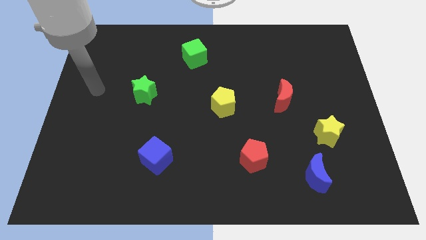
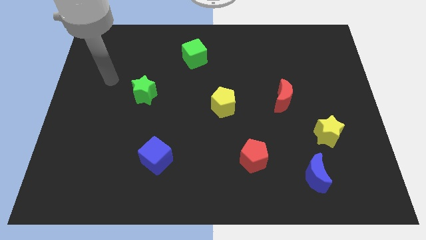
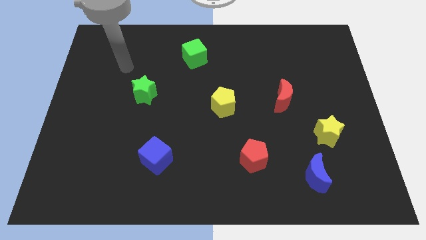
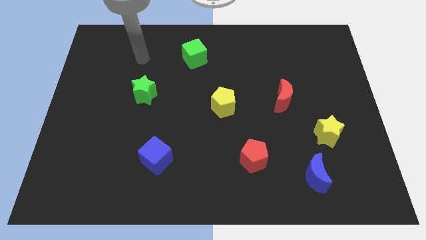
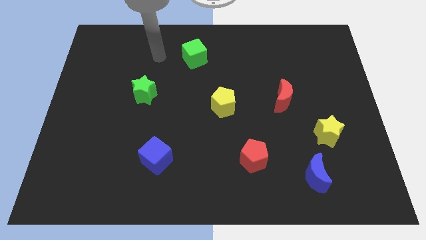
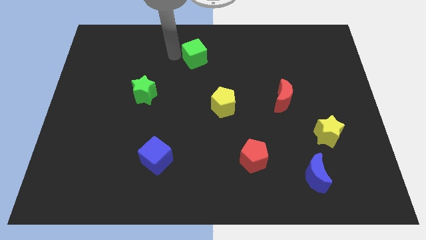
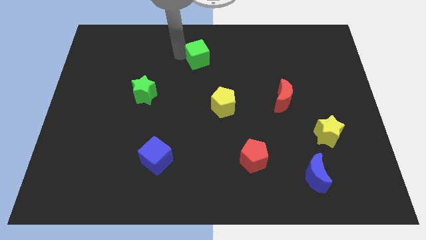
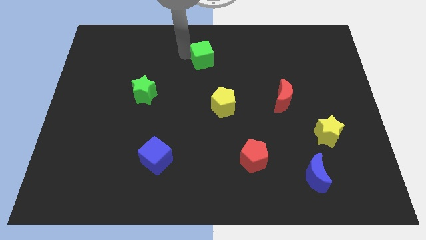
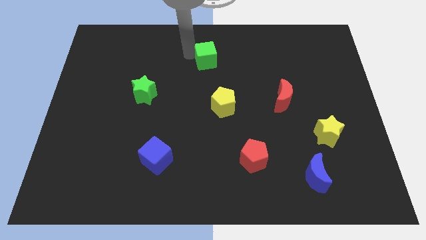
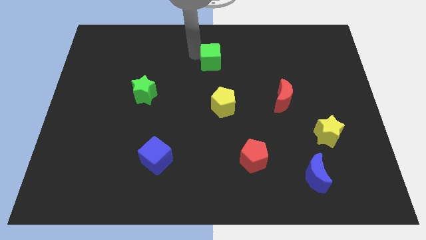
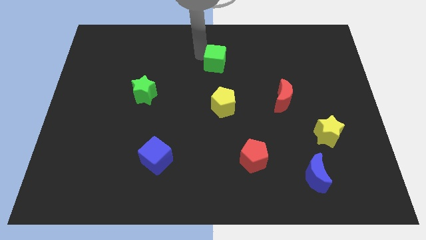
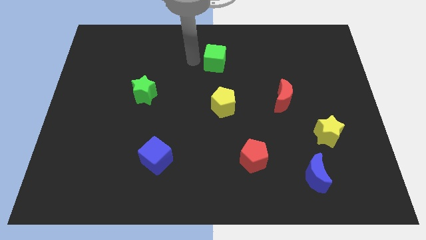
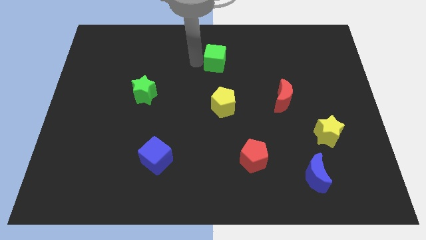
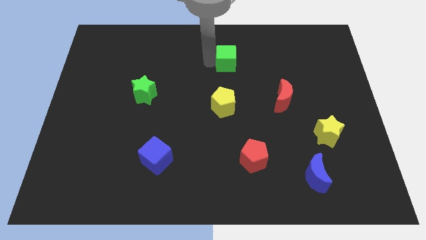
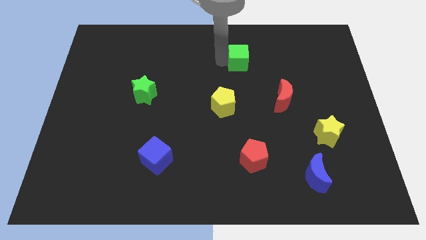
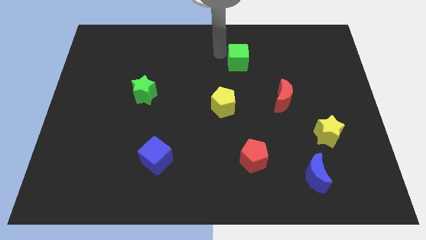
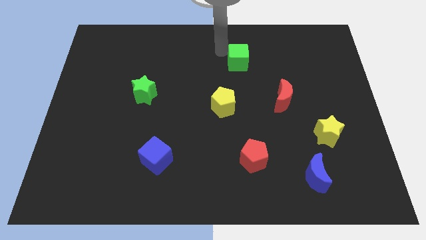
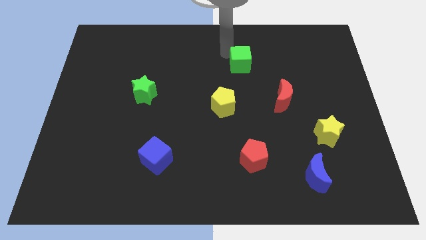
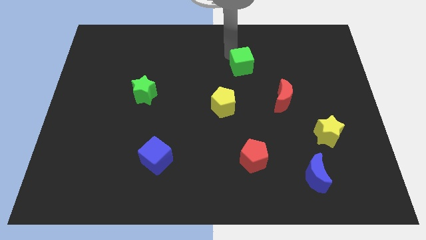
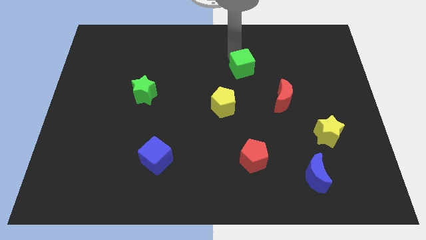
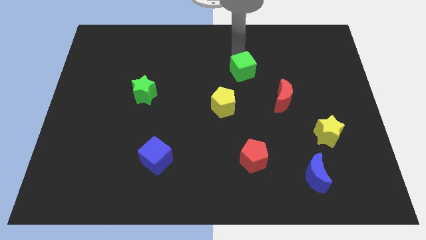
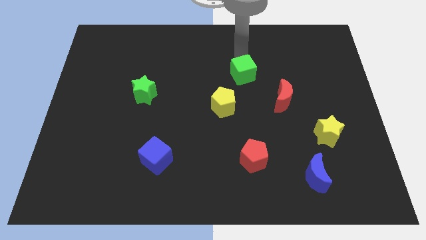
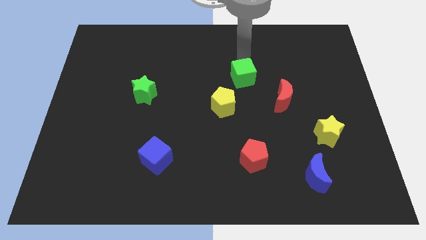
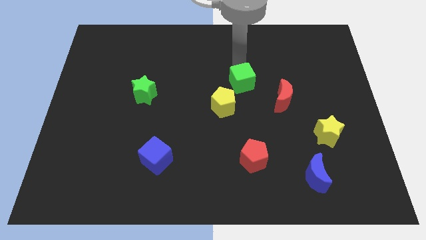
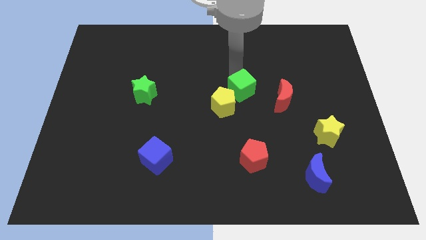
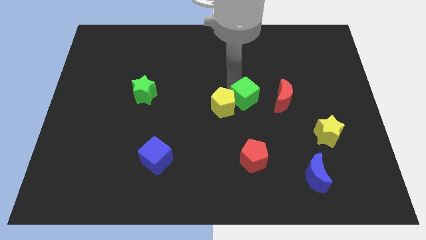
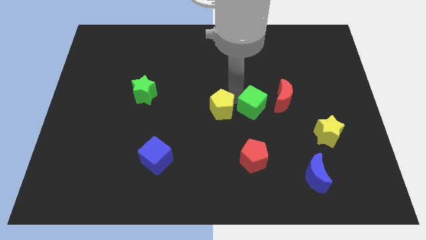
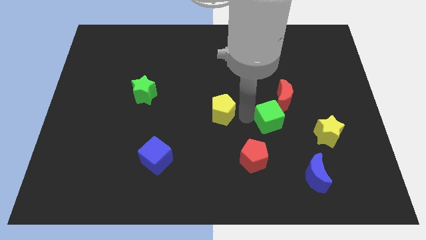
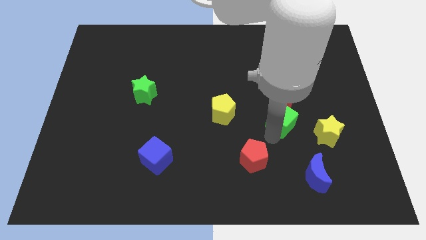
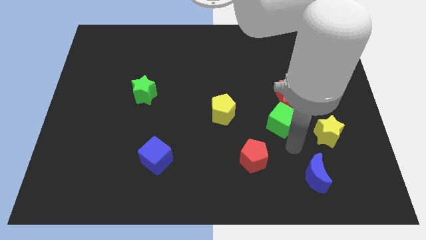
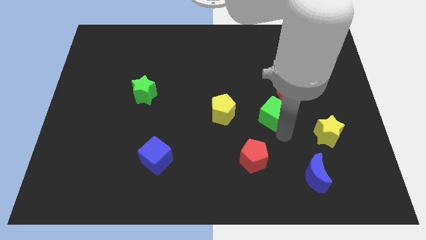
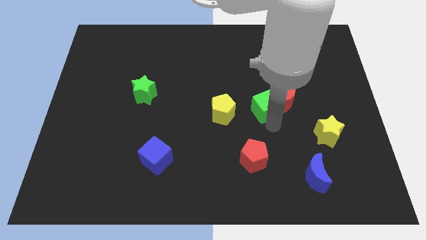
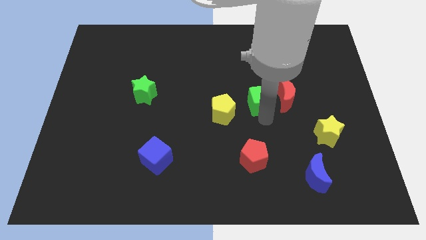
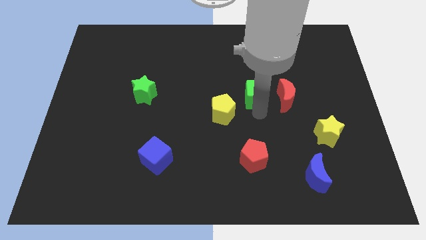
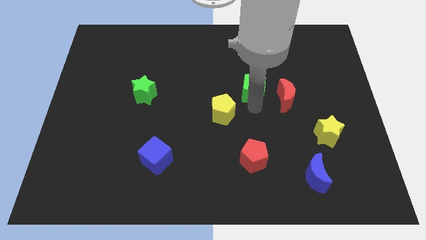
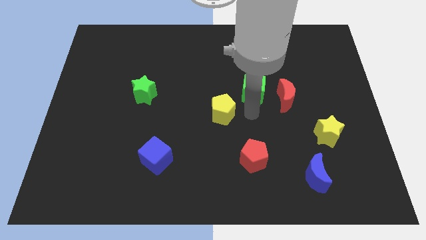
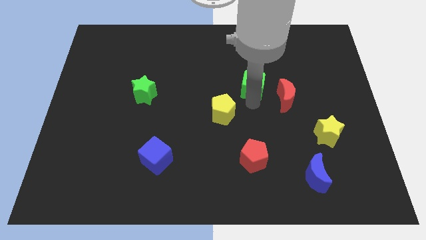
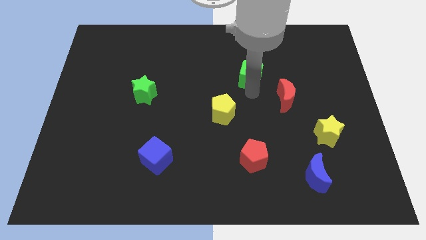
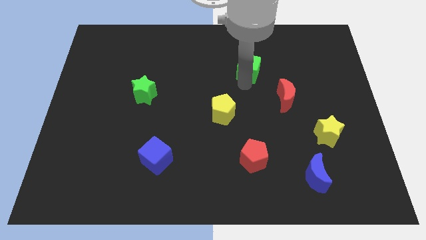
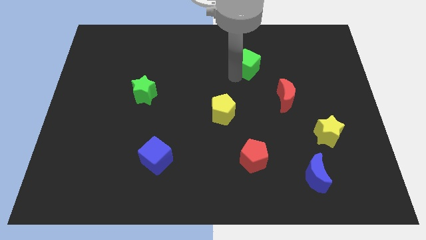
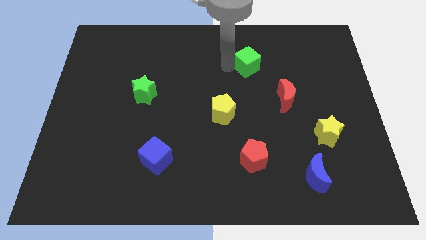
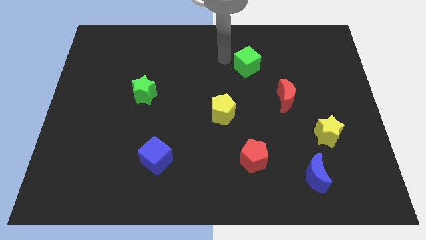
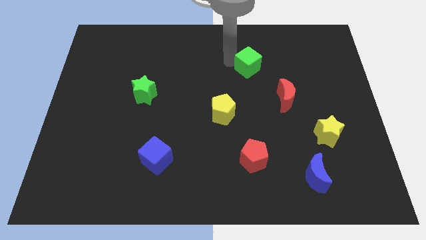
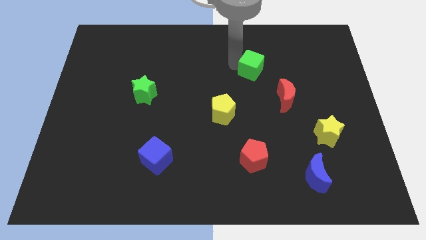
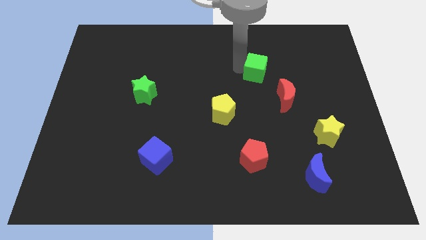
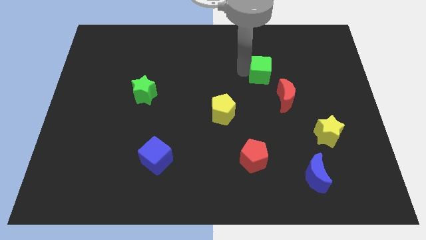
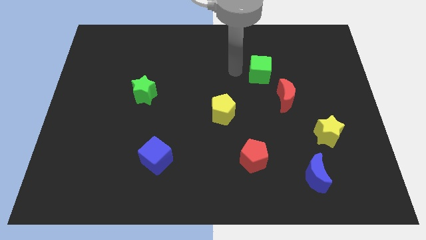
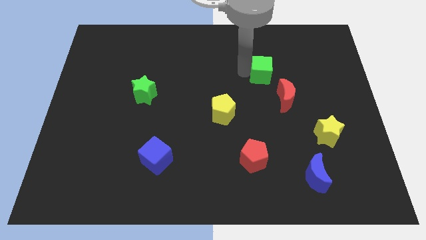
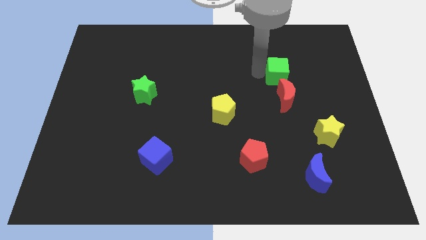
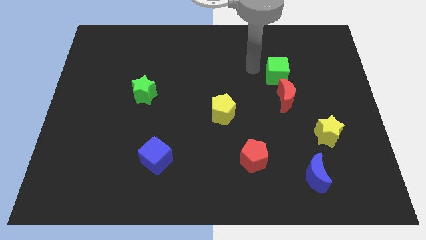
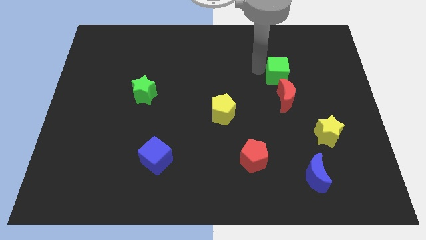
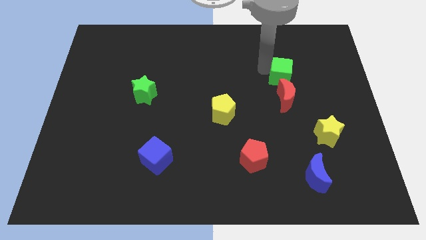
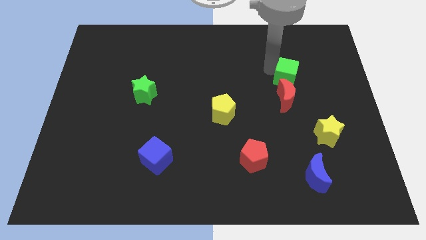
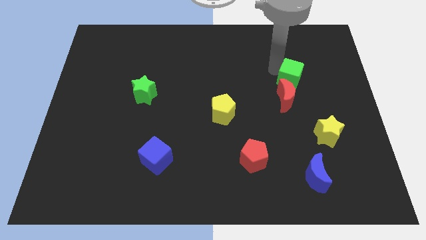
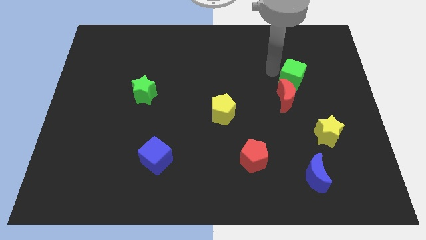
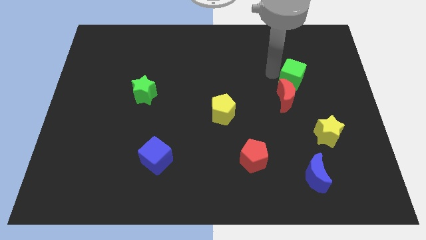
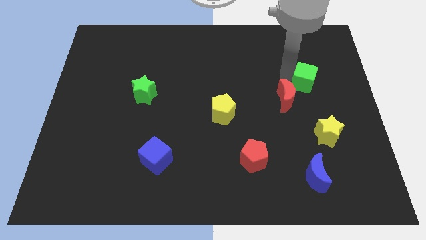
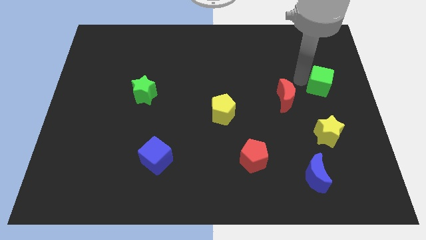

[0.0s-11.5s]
move the green cube to the right side of the board

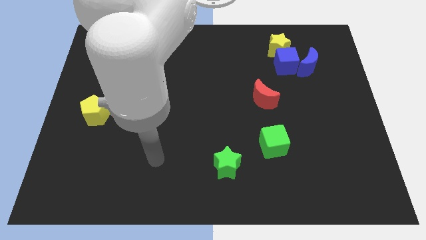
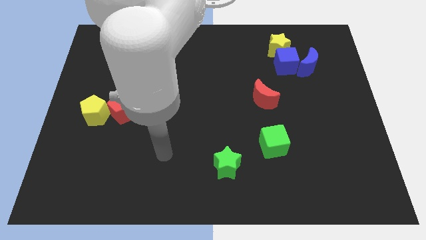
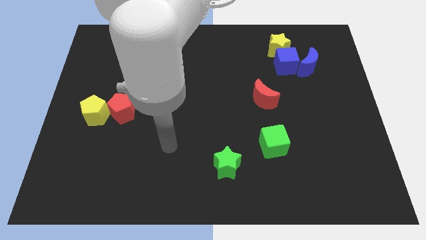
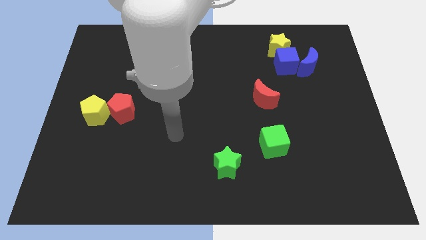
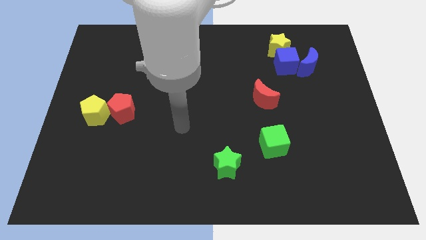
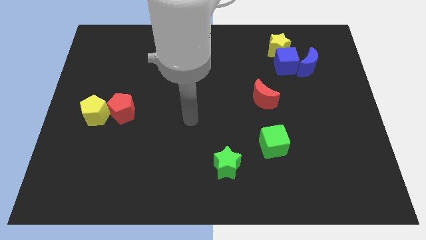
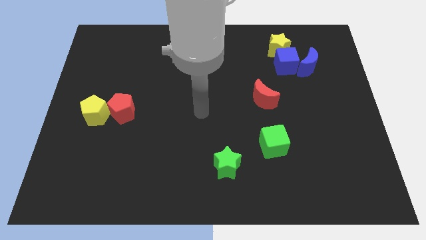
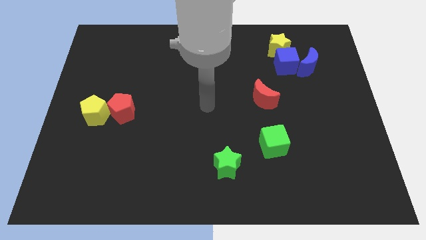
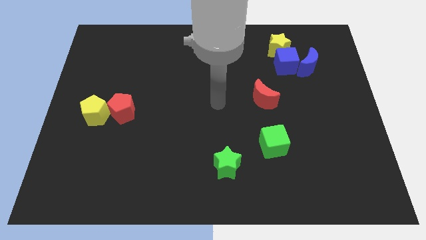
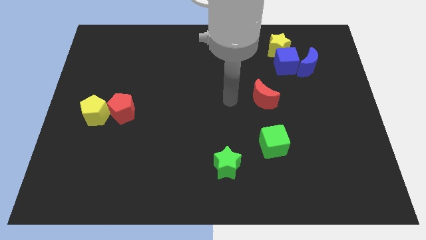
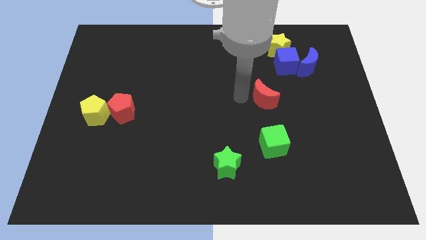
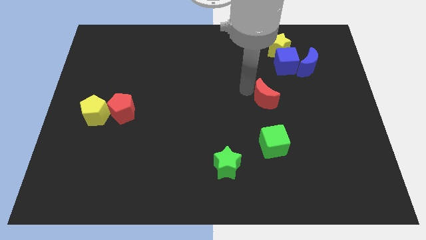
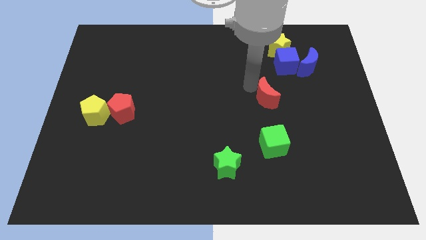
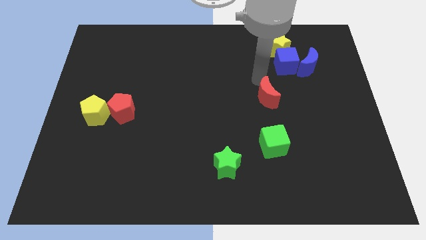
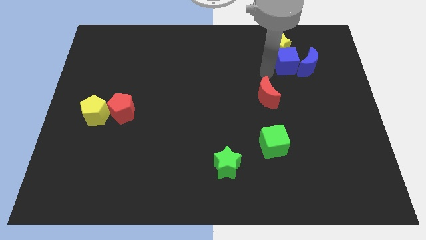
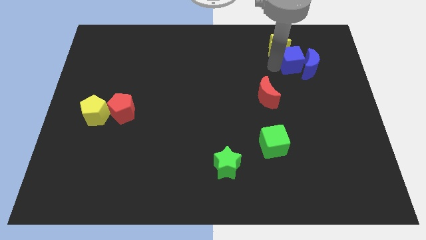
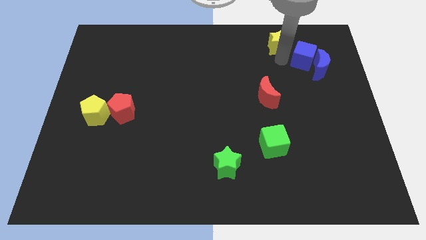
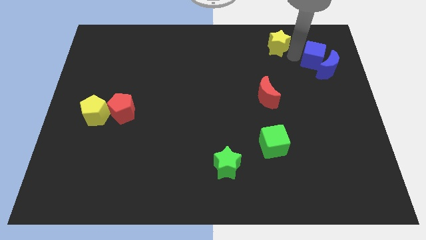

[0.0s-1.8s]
slide the blue moon to the center right
